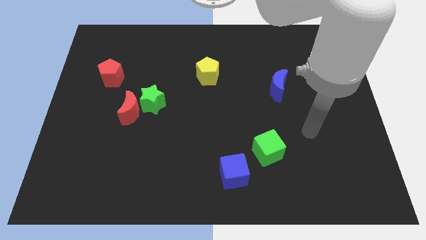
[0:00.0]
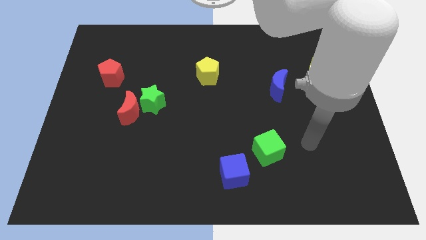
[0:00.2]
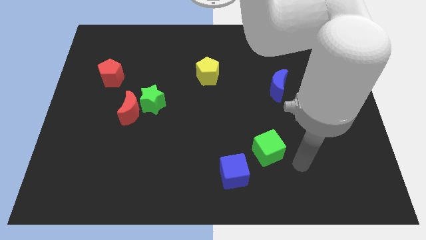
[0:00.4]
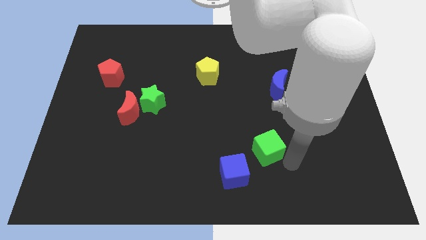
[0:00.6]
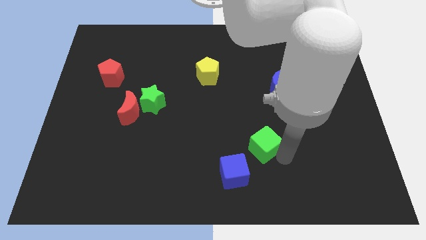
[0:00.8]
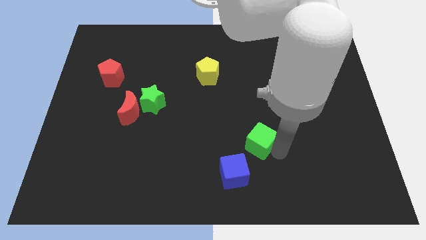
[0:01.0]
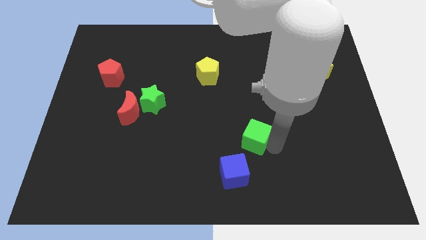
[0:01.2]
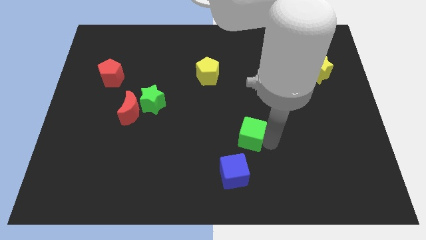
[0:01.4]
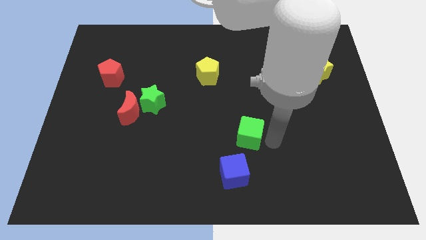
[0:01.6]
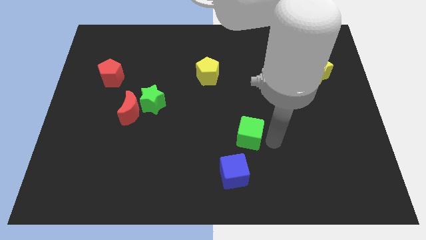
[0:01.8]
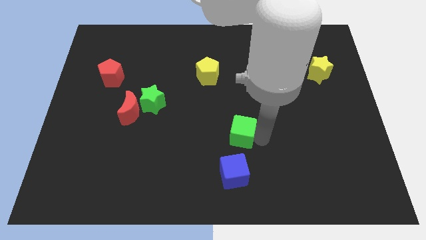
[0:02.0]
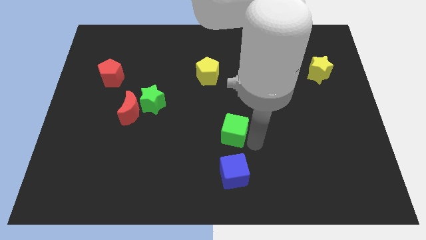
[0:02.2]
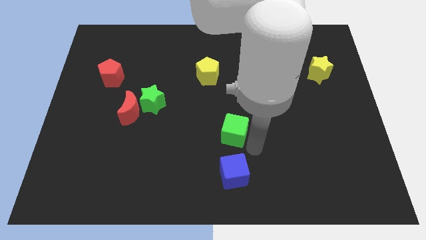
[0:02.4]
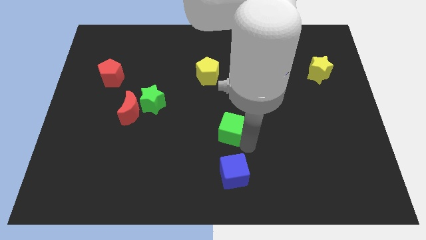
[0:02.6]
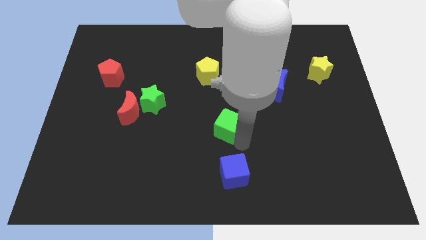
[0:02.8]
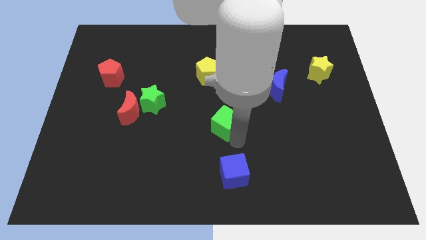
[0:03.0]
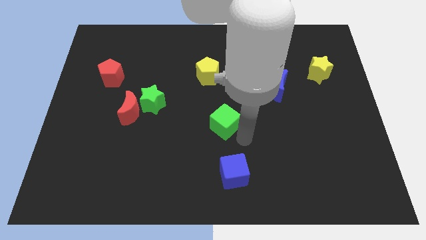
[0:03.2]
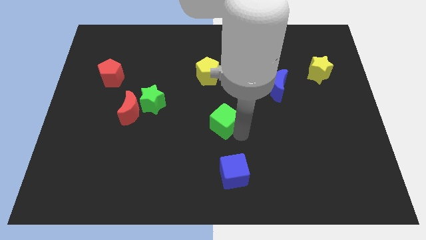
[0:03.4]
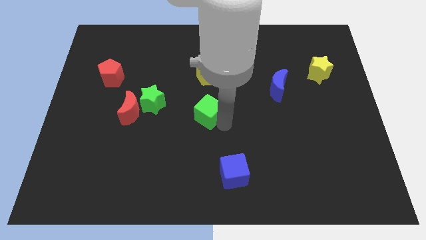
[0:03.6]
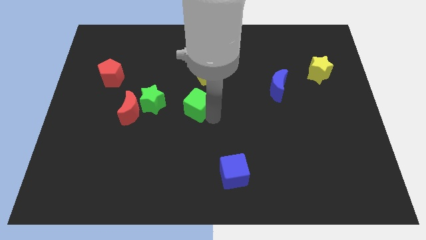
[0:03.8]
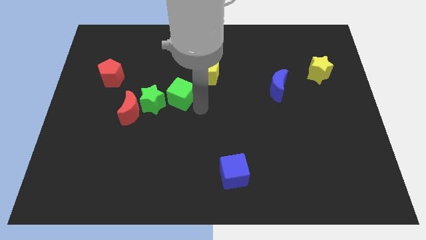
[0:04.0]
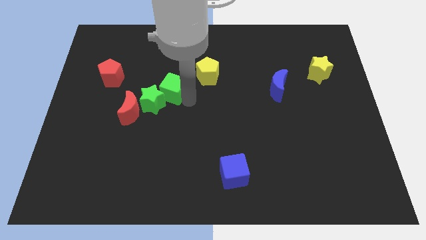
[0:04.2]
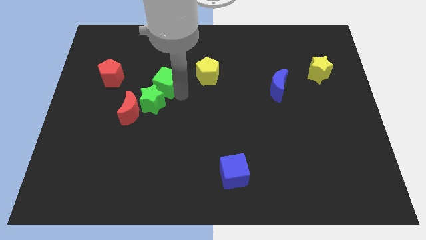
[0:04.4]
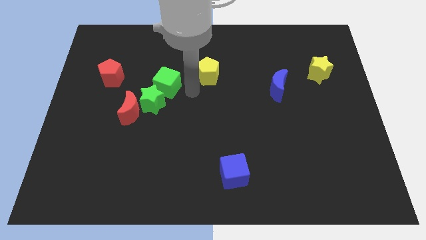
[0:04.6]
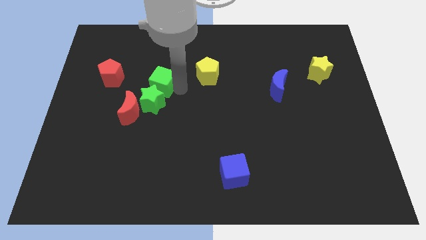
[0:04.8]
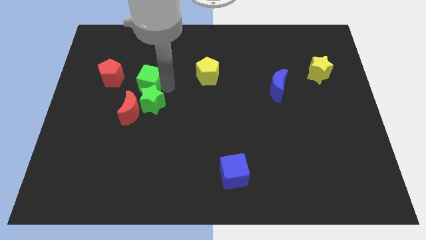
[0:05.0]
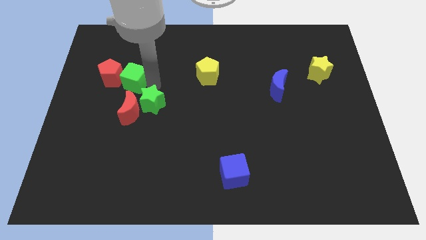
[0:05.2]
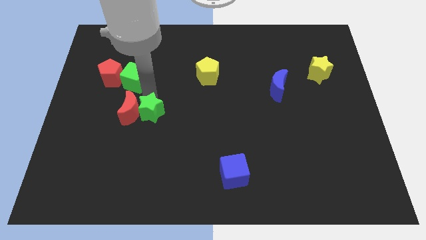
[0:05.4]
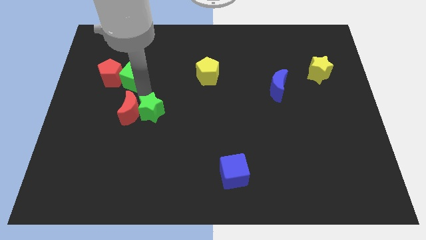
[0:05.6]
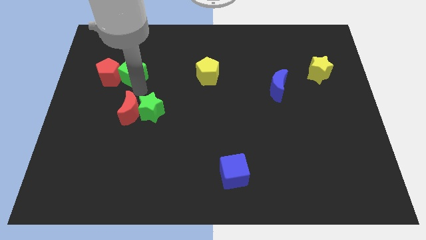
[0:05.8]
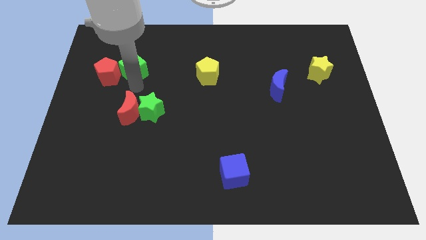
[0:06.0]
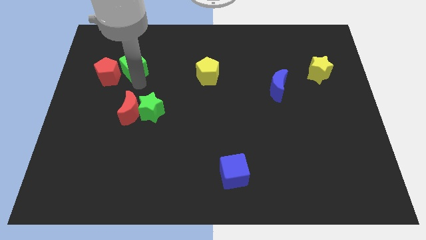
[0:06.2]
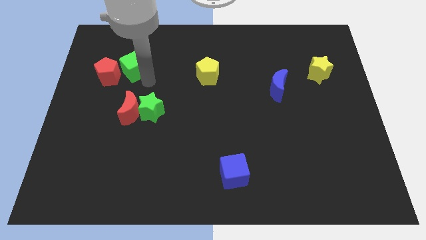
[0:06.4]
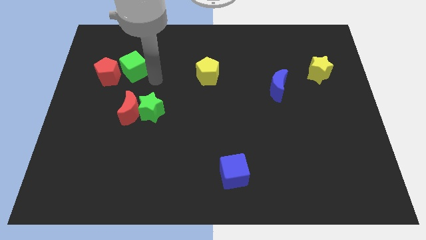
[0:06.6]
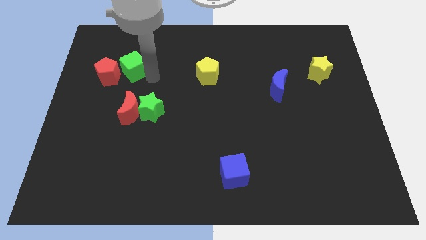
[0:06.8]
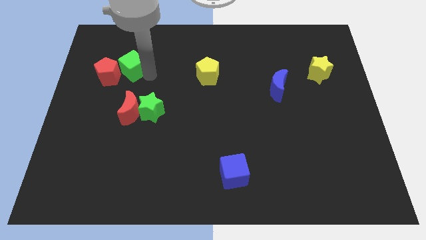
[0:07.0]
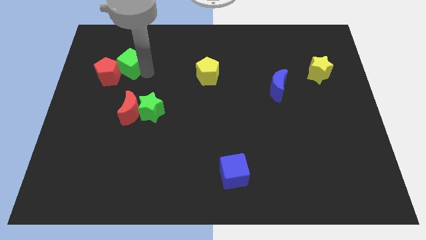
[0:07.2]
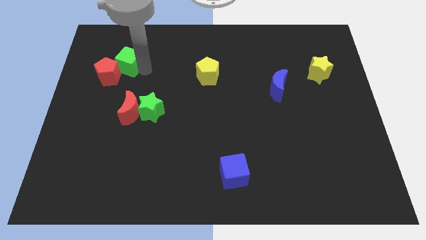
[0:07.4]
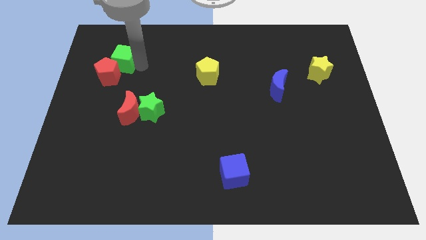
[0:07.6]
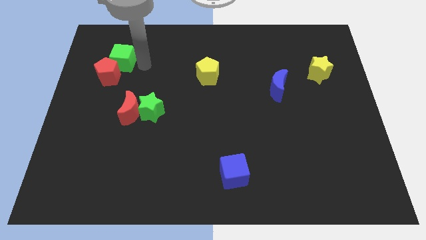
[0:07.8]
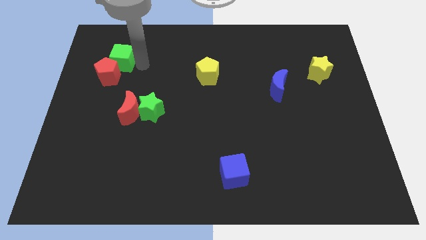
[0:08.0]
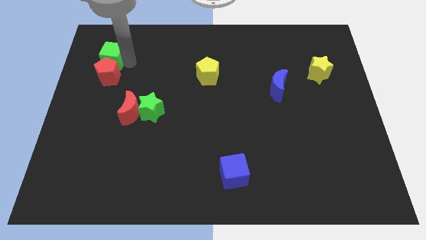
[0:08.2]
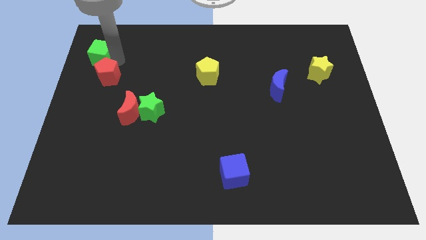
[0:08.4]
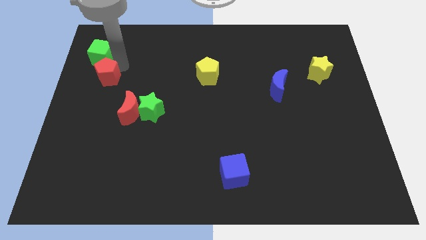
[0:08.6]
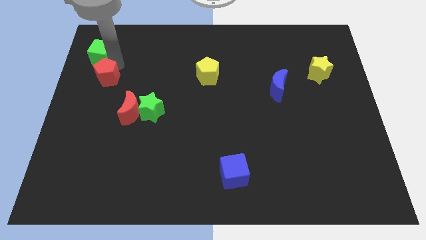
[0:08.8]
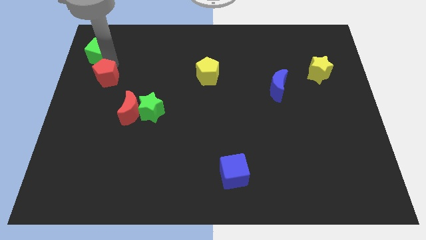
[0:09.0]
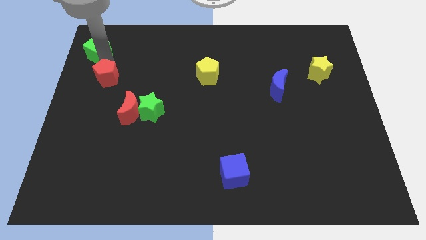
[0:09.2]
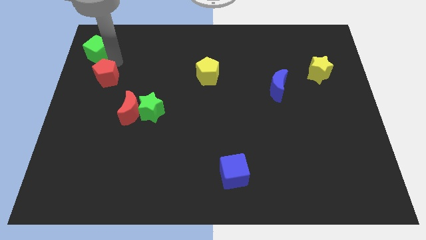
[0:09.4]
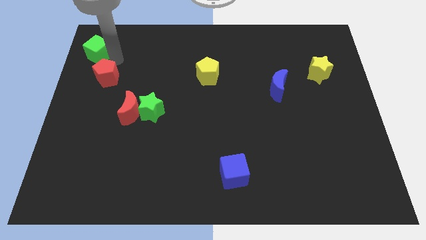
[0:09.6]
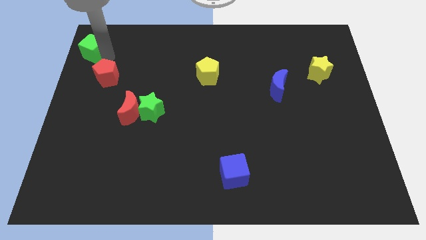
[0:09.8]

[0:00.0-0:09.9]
move the green cube to the top left

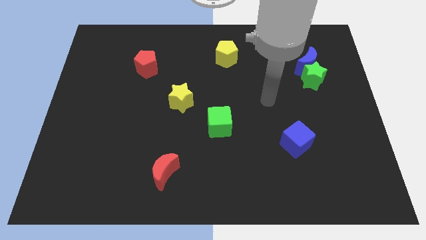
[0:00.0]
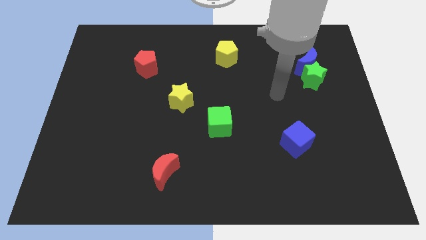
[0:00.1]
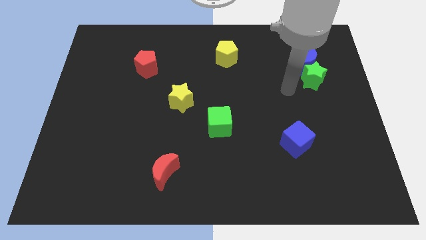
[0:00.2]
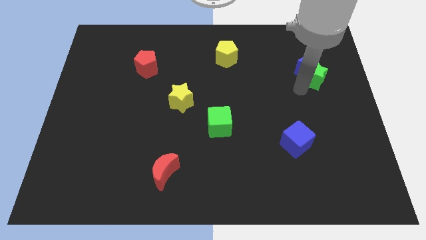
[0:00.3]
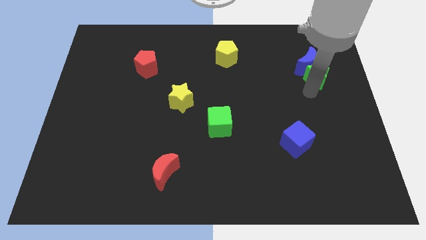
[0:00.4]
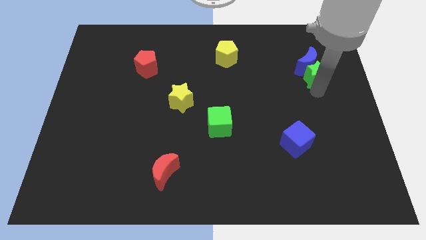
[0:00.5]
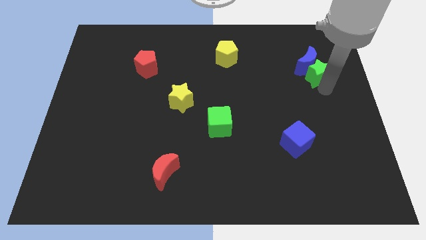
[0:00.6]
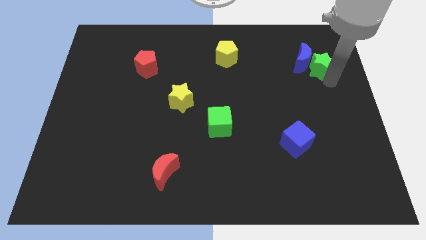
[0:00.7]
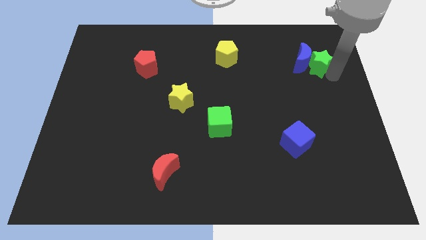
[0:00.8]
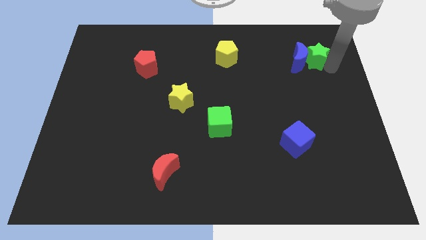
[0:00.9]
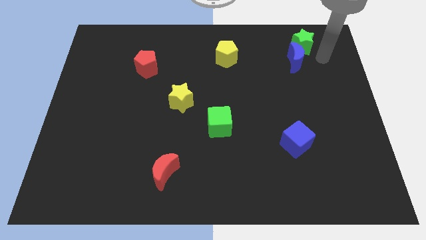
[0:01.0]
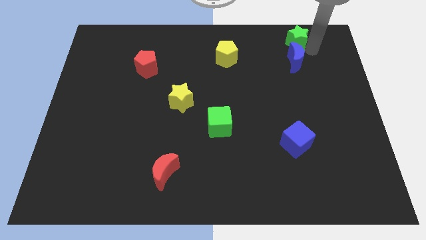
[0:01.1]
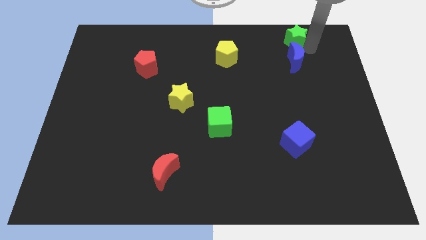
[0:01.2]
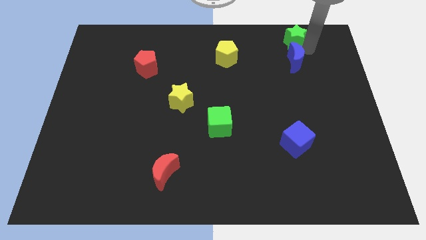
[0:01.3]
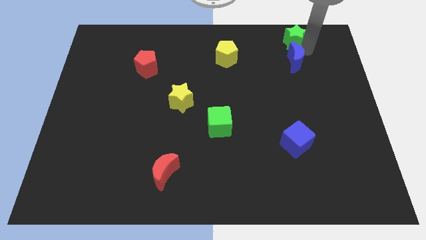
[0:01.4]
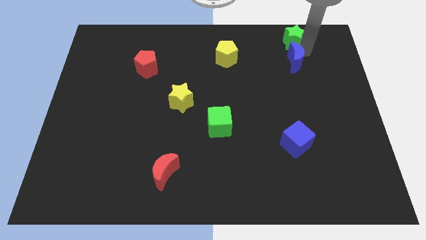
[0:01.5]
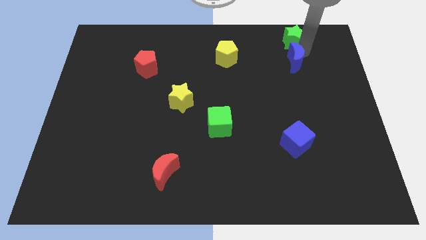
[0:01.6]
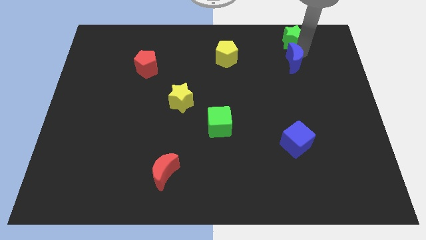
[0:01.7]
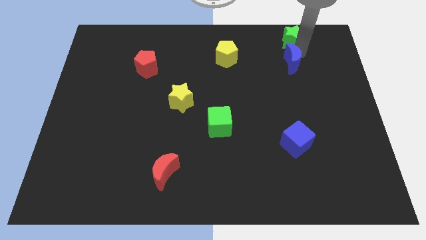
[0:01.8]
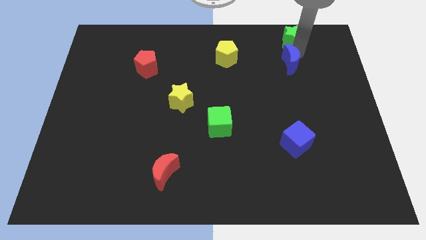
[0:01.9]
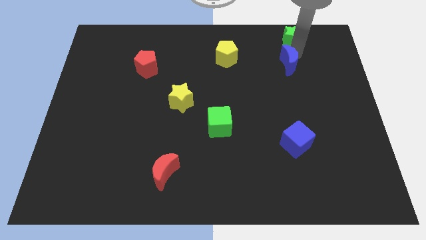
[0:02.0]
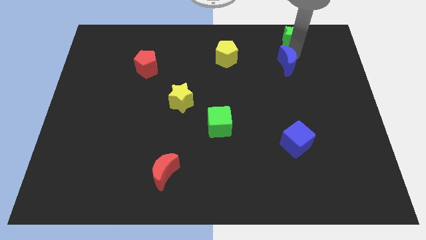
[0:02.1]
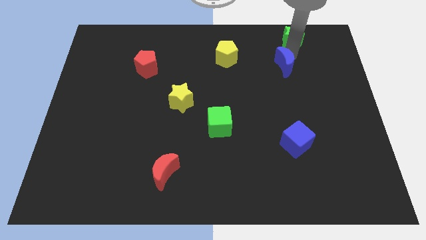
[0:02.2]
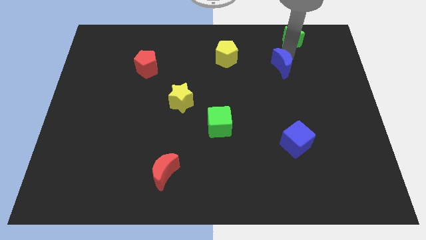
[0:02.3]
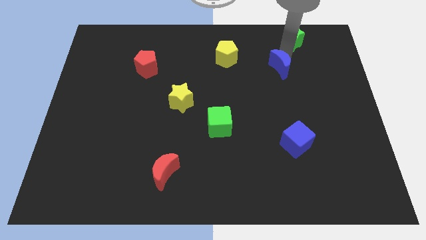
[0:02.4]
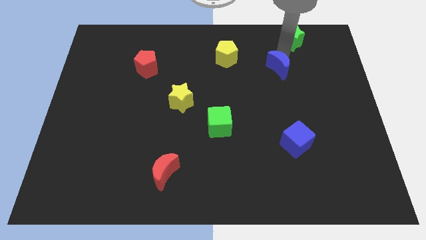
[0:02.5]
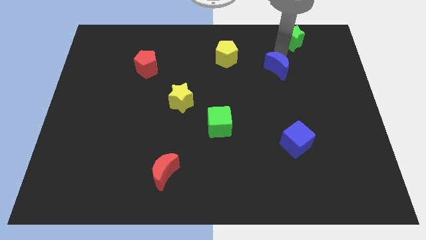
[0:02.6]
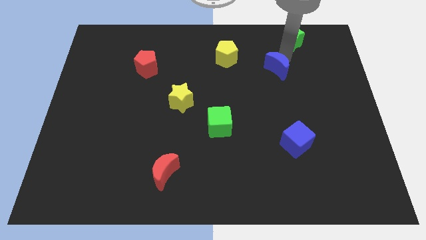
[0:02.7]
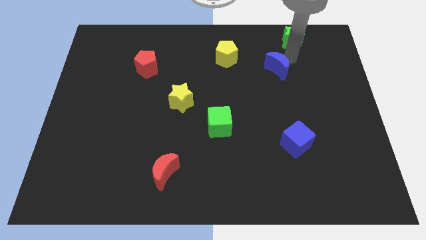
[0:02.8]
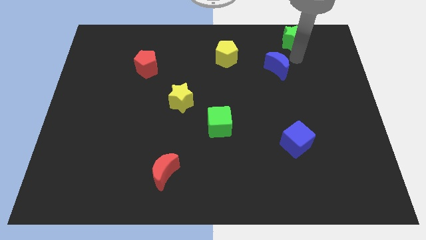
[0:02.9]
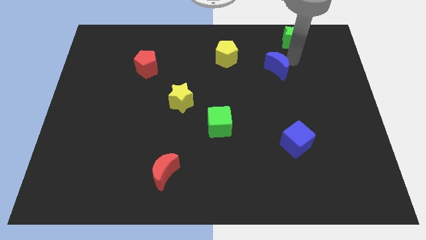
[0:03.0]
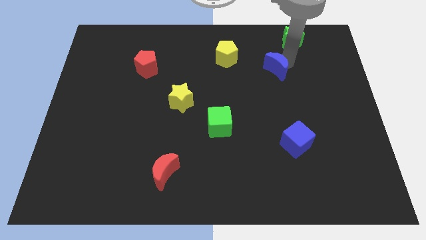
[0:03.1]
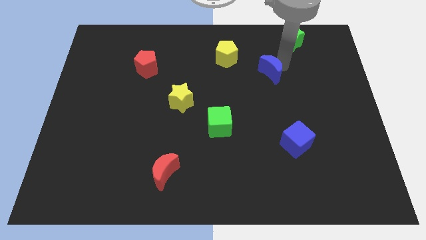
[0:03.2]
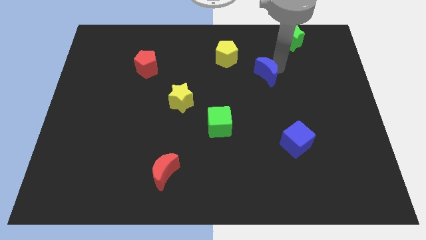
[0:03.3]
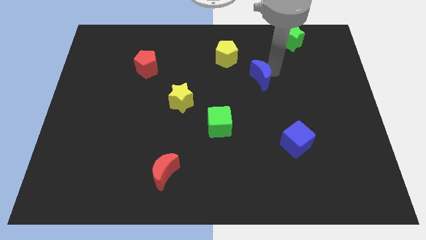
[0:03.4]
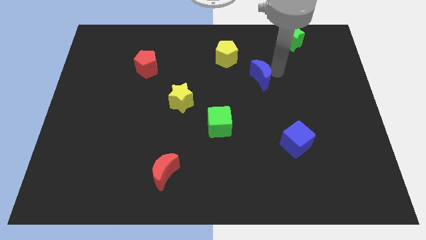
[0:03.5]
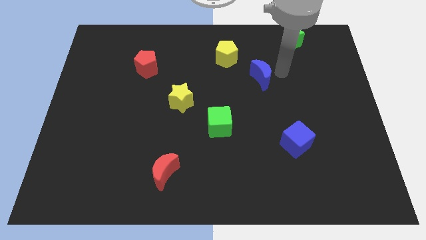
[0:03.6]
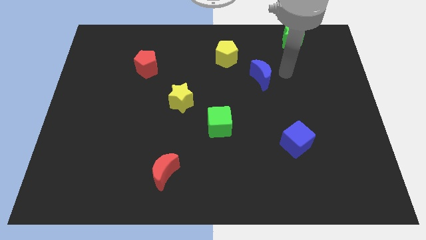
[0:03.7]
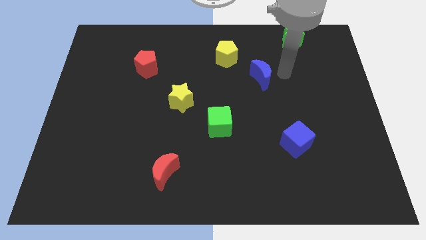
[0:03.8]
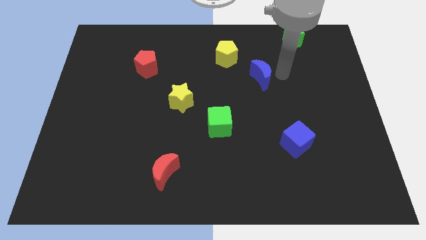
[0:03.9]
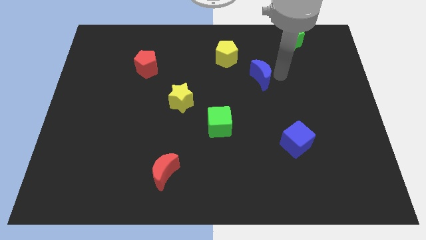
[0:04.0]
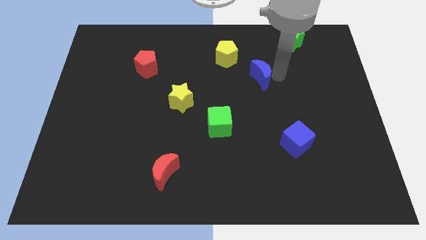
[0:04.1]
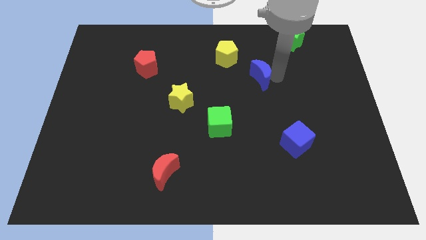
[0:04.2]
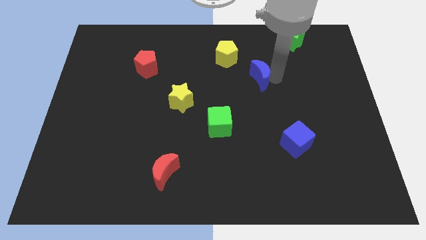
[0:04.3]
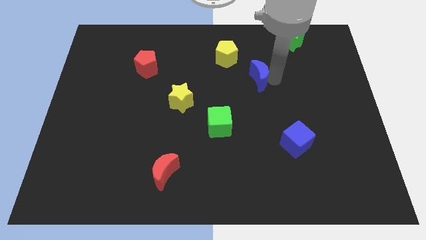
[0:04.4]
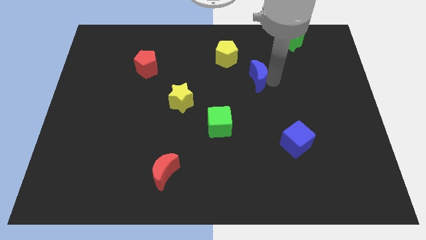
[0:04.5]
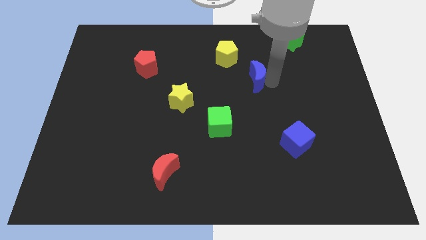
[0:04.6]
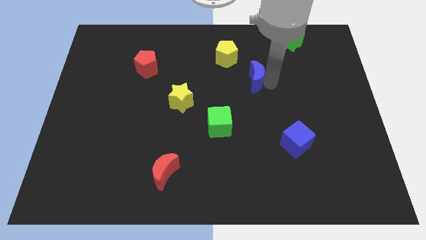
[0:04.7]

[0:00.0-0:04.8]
move the blue moon to the center
